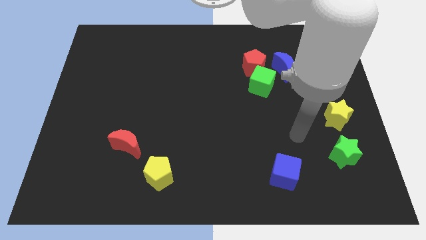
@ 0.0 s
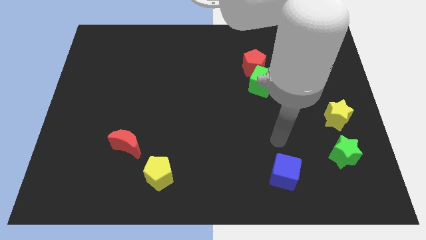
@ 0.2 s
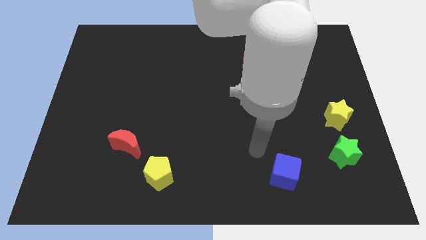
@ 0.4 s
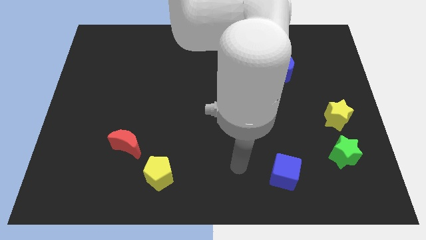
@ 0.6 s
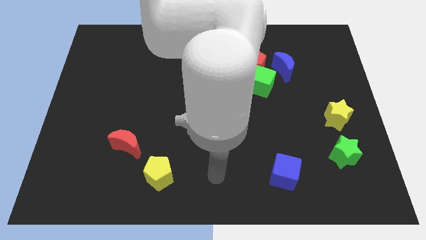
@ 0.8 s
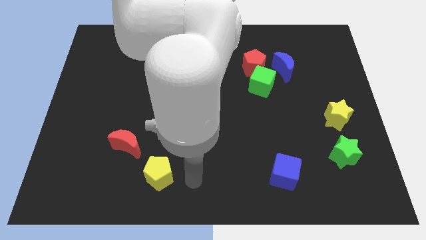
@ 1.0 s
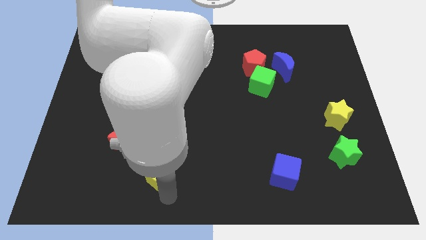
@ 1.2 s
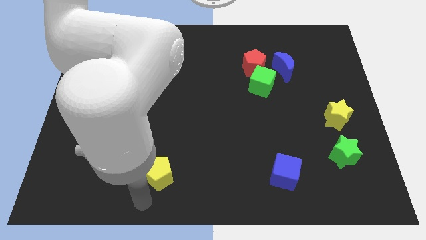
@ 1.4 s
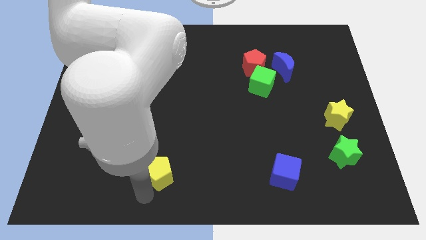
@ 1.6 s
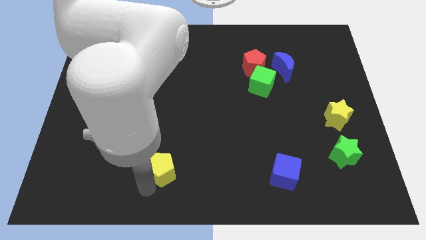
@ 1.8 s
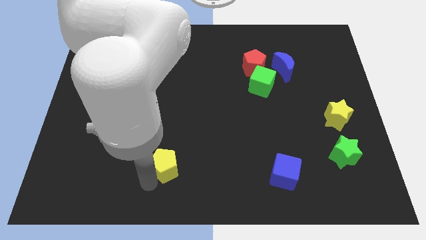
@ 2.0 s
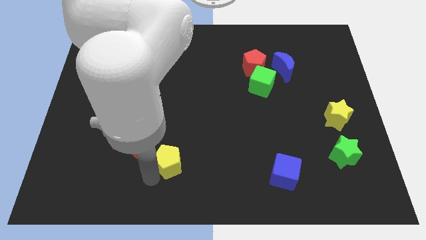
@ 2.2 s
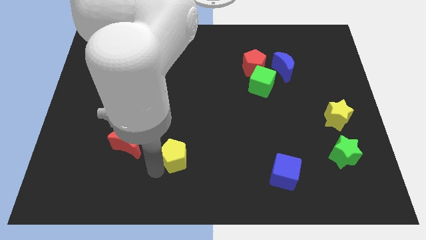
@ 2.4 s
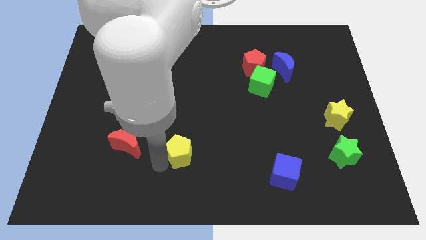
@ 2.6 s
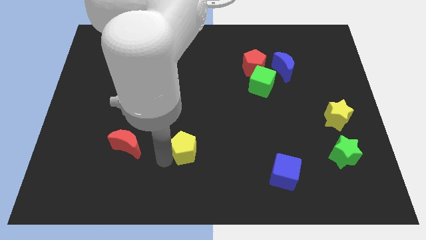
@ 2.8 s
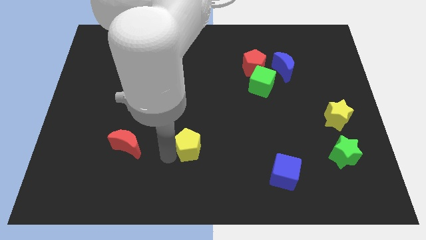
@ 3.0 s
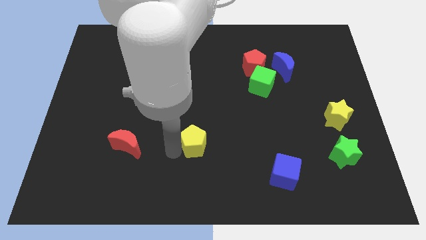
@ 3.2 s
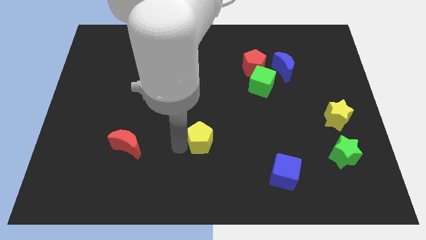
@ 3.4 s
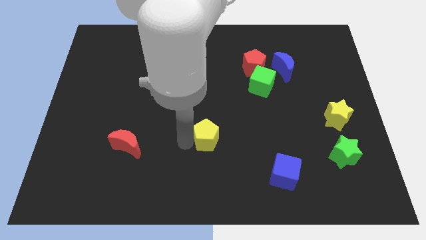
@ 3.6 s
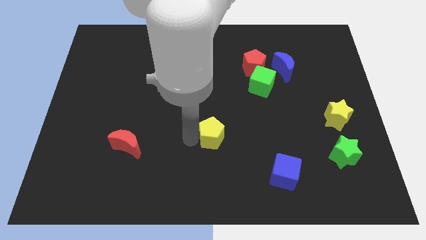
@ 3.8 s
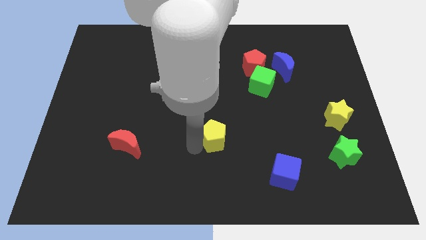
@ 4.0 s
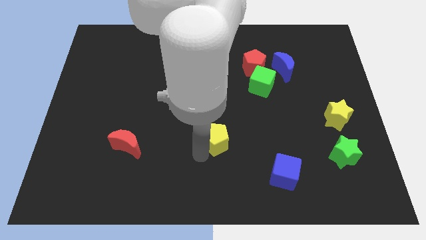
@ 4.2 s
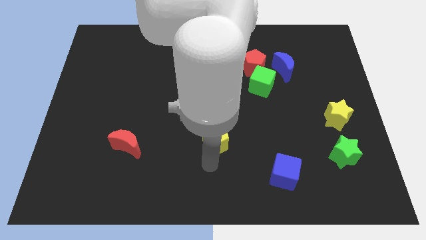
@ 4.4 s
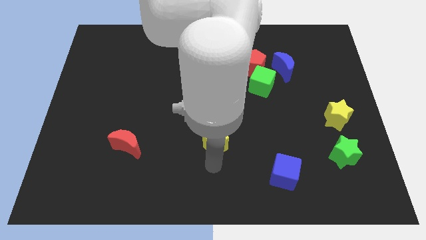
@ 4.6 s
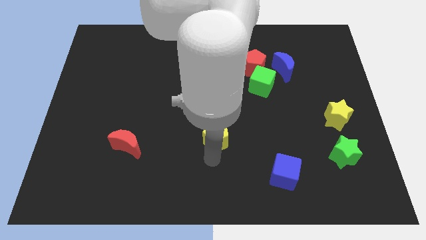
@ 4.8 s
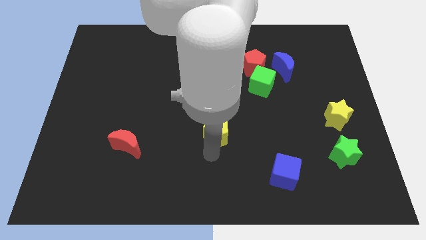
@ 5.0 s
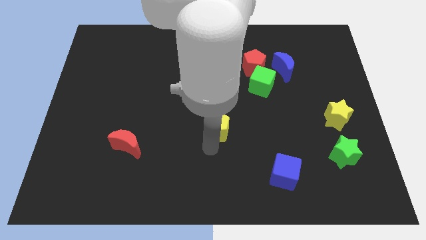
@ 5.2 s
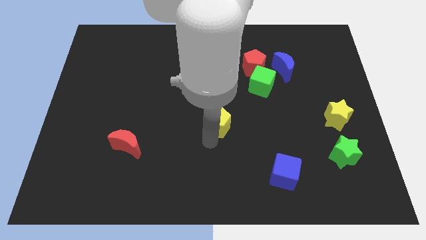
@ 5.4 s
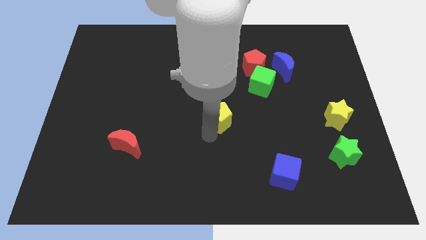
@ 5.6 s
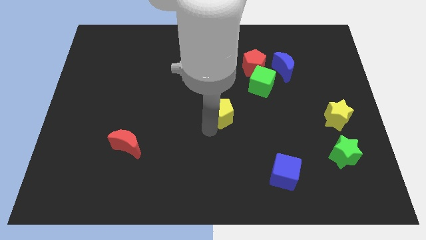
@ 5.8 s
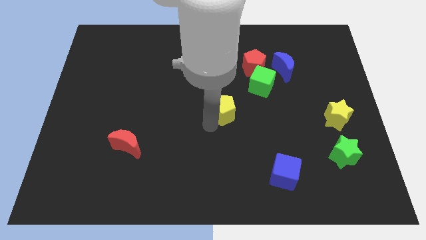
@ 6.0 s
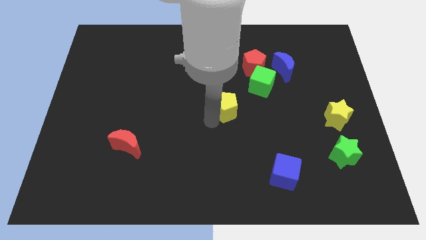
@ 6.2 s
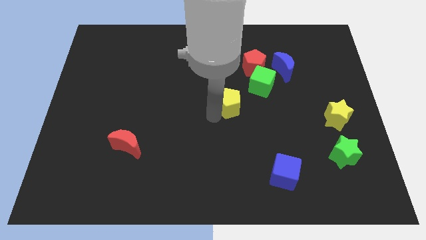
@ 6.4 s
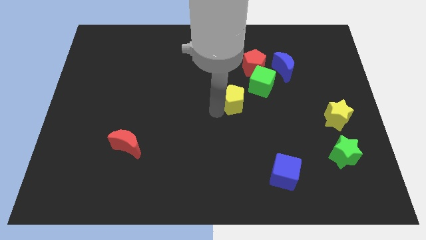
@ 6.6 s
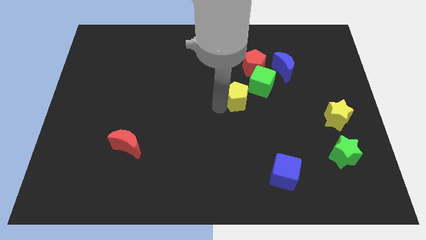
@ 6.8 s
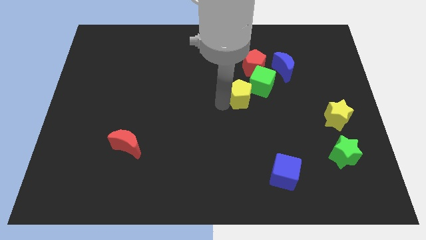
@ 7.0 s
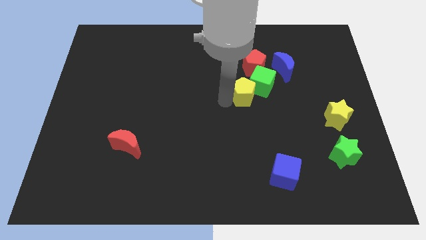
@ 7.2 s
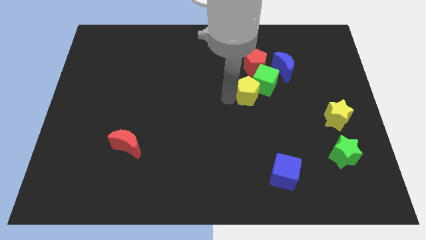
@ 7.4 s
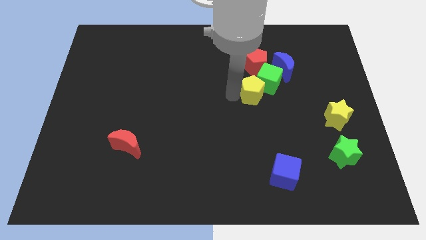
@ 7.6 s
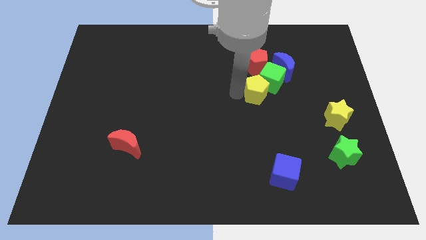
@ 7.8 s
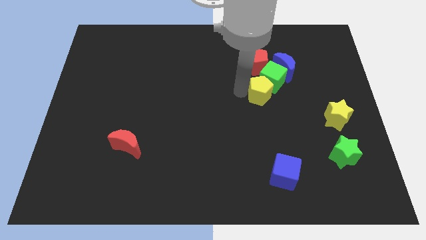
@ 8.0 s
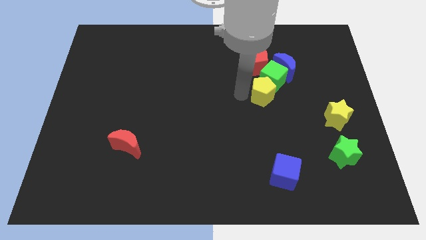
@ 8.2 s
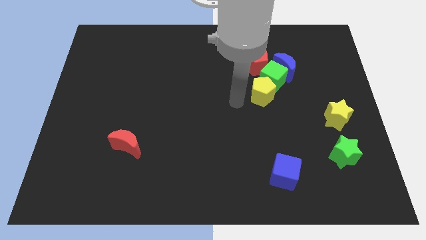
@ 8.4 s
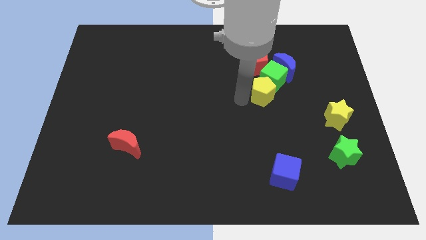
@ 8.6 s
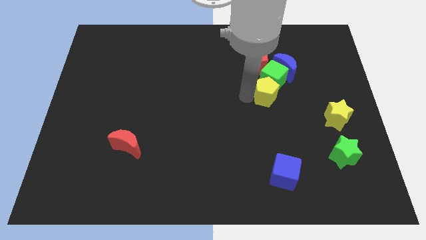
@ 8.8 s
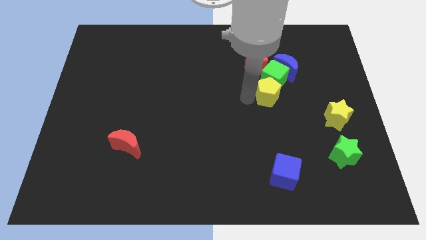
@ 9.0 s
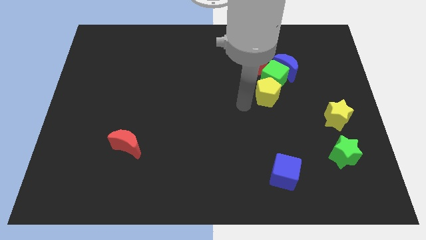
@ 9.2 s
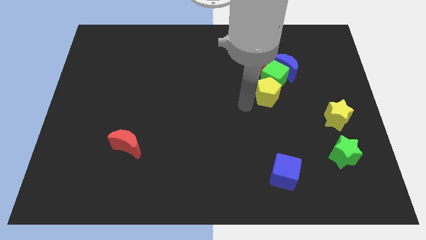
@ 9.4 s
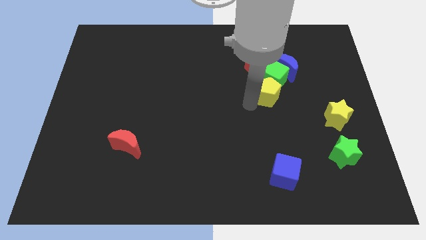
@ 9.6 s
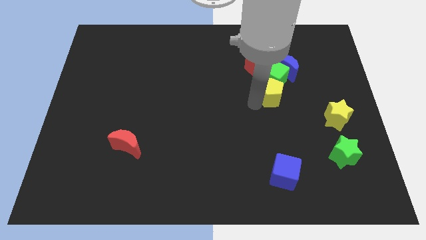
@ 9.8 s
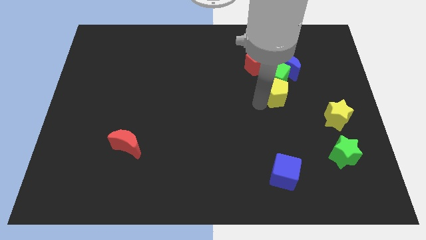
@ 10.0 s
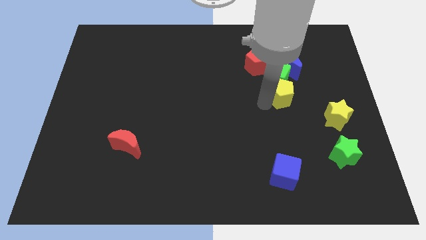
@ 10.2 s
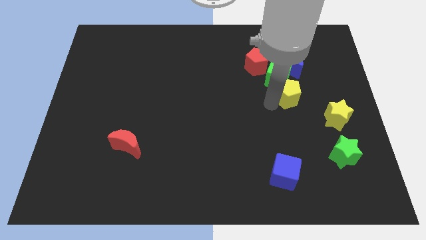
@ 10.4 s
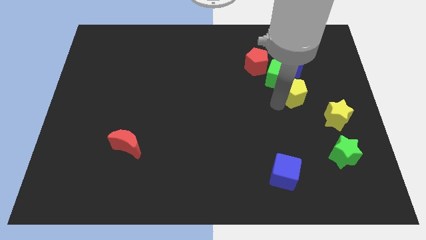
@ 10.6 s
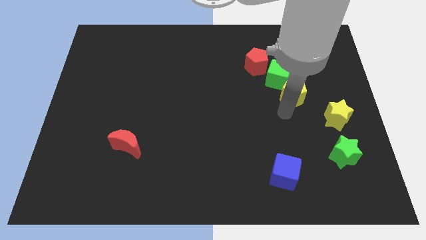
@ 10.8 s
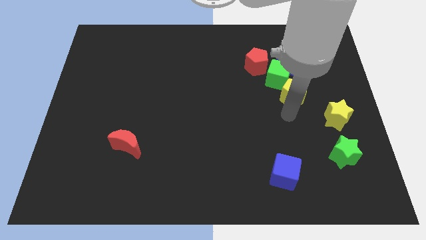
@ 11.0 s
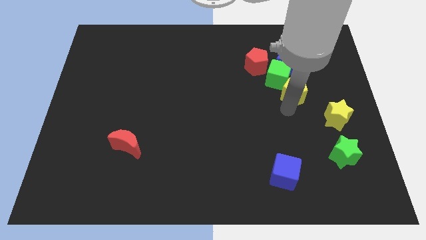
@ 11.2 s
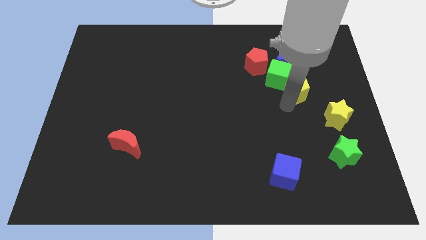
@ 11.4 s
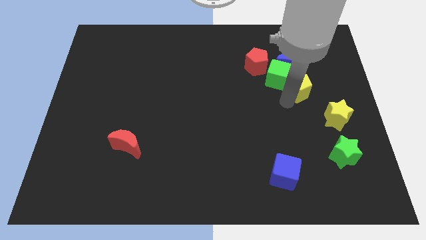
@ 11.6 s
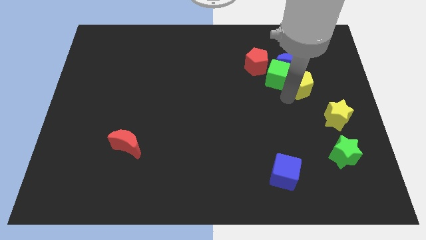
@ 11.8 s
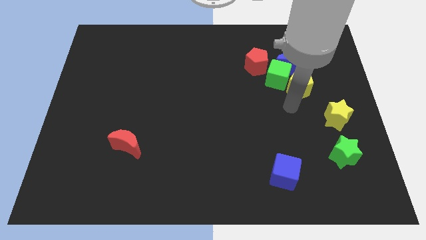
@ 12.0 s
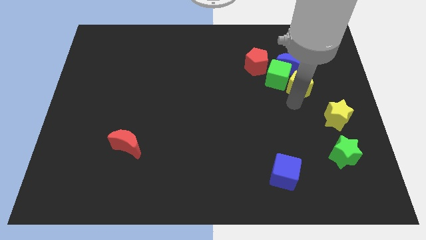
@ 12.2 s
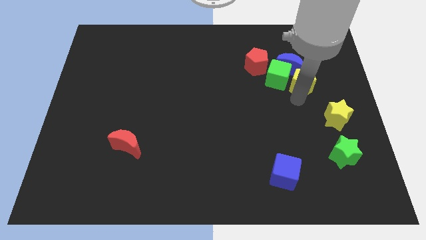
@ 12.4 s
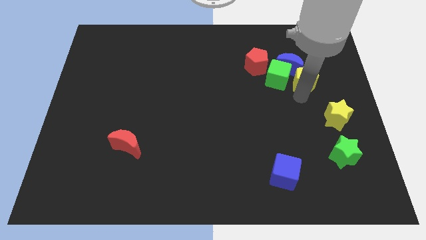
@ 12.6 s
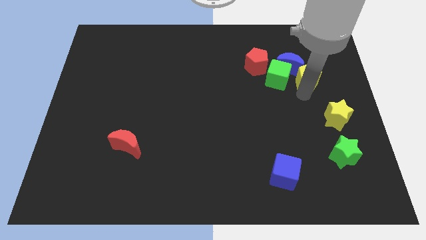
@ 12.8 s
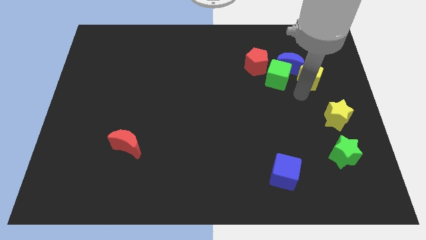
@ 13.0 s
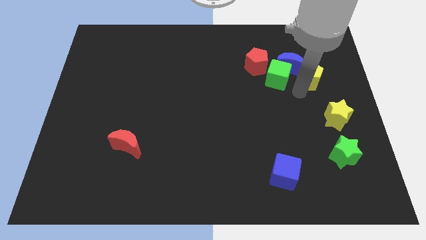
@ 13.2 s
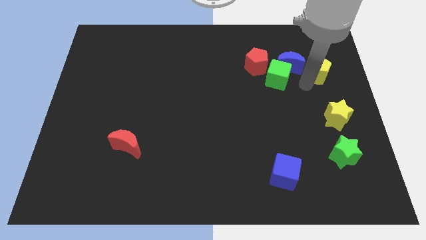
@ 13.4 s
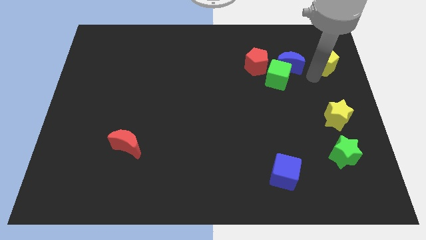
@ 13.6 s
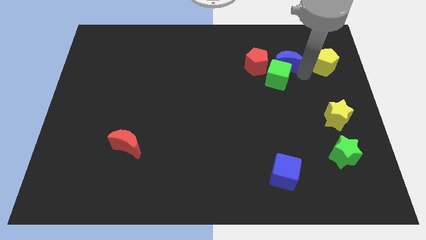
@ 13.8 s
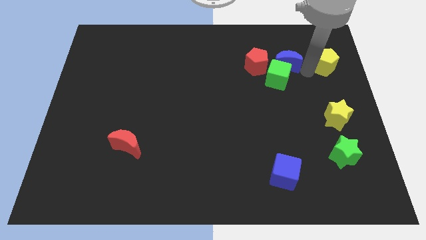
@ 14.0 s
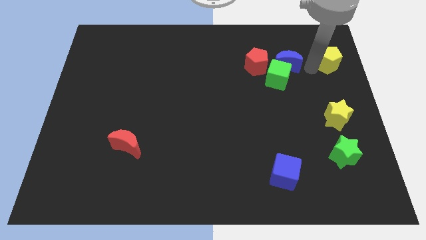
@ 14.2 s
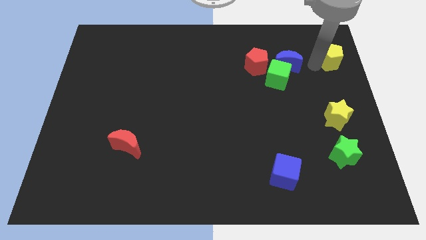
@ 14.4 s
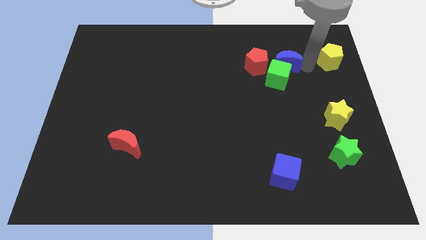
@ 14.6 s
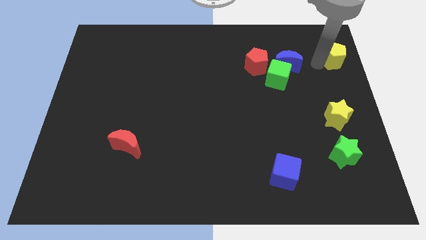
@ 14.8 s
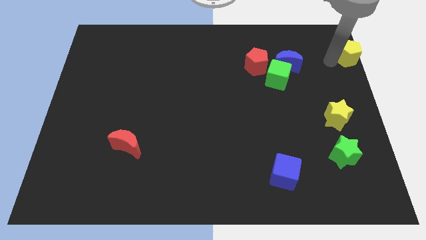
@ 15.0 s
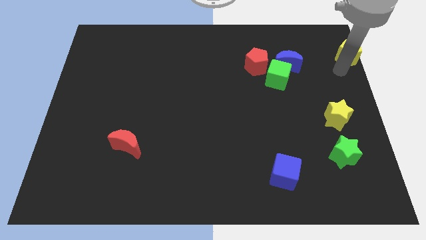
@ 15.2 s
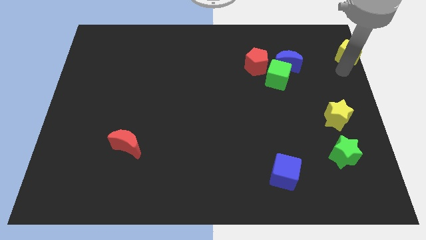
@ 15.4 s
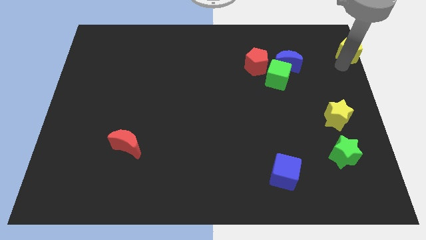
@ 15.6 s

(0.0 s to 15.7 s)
slide the yellow pentagon to the top right
